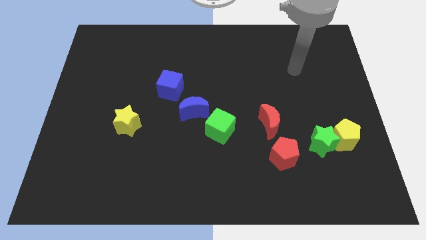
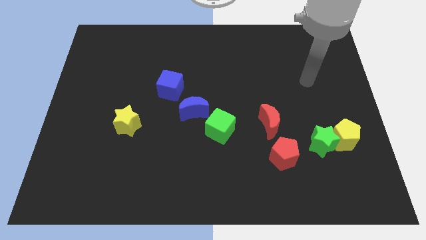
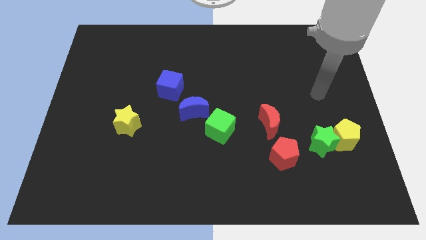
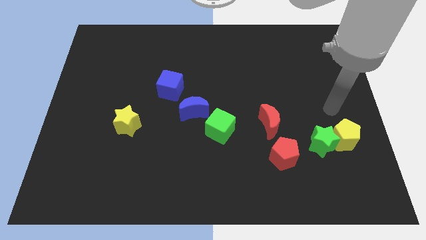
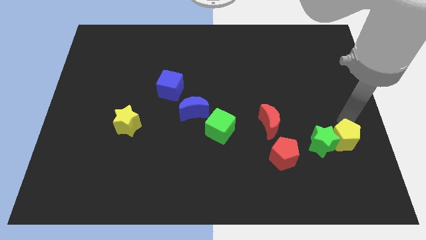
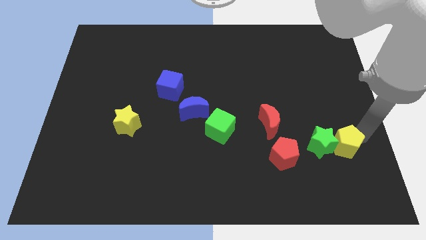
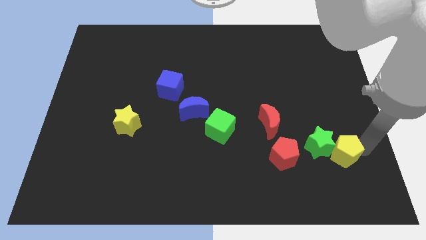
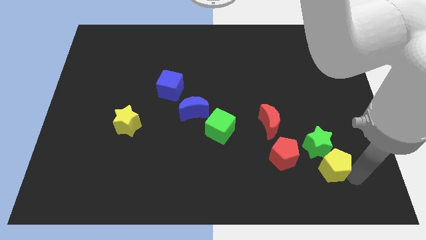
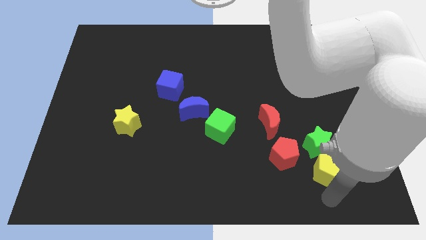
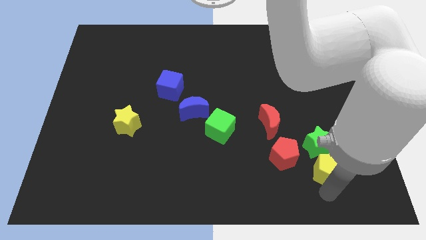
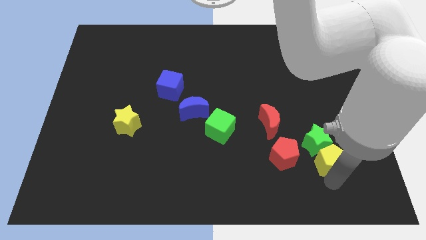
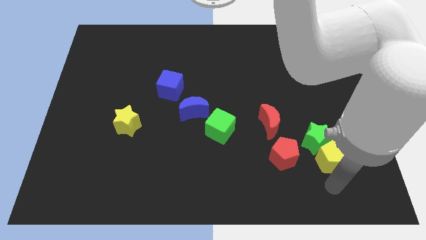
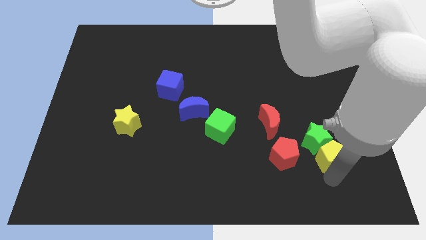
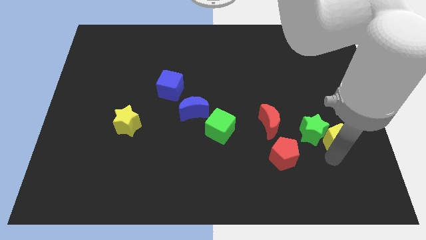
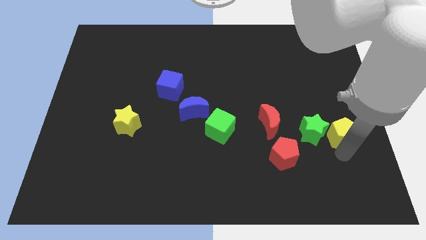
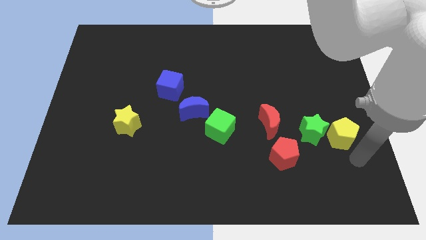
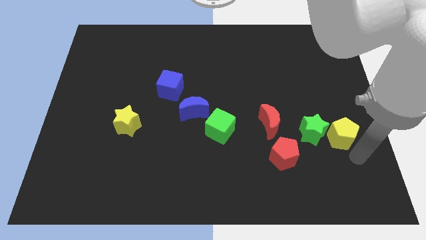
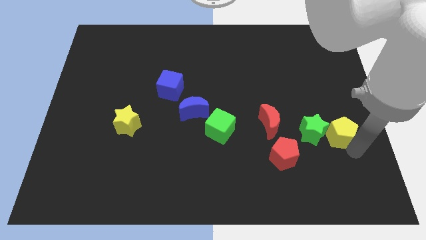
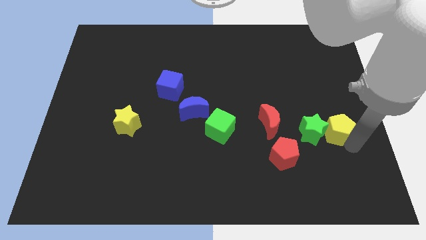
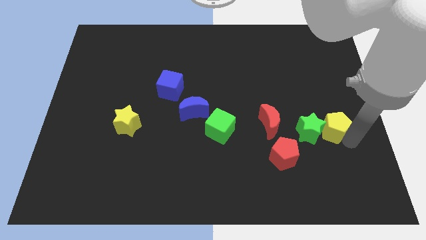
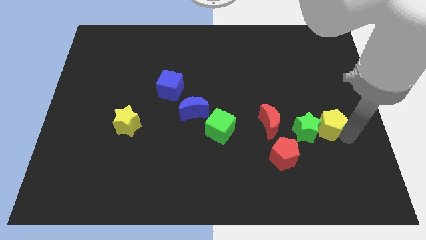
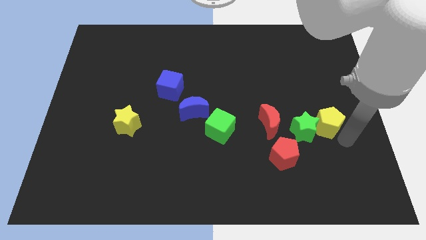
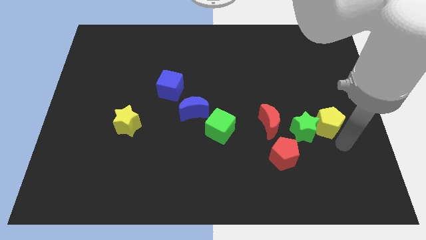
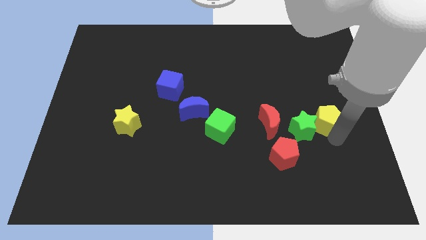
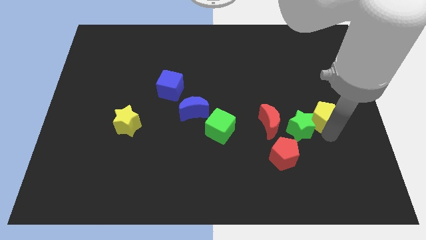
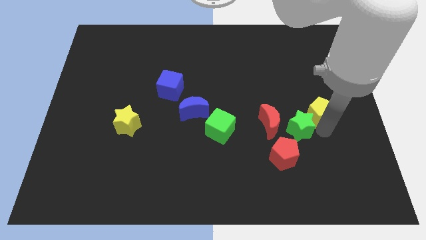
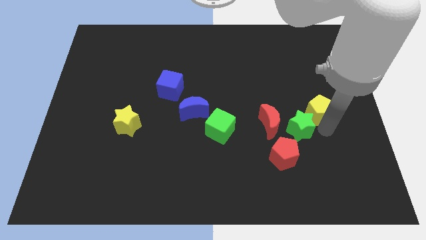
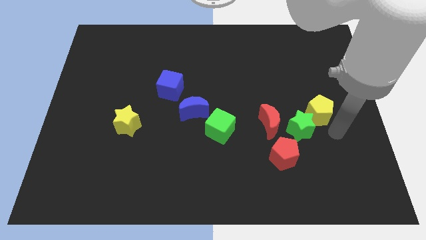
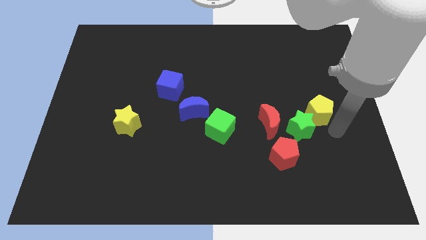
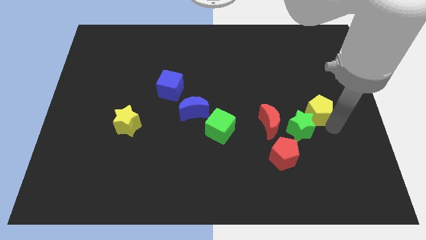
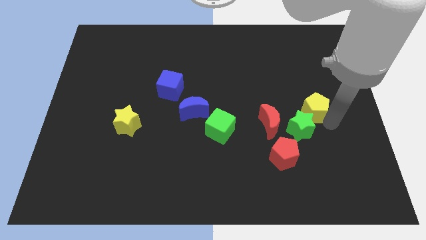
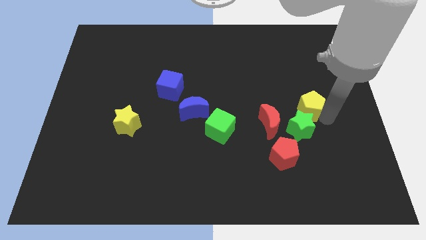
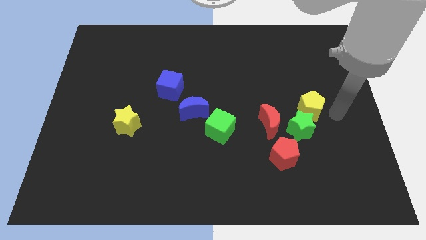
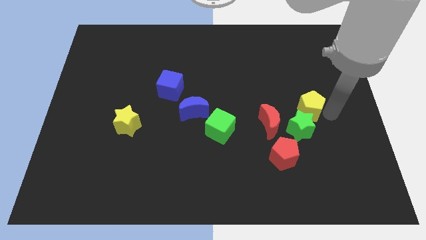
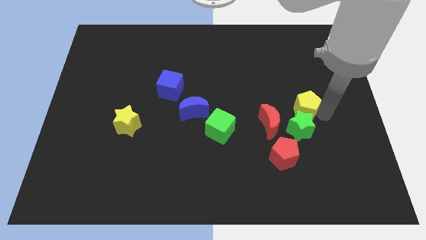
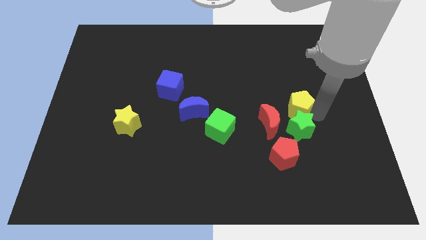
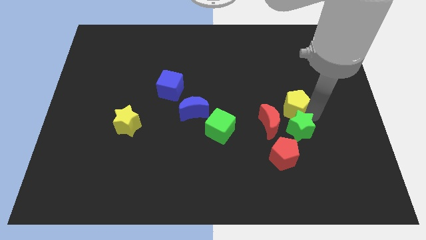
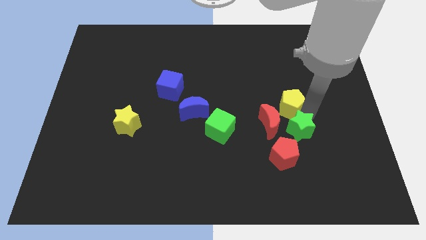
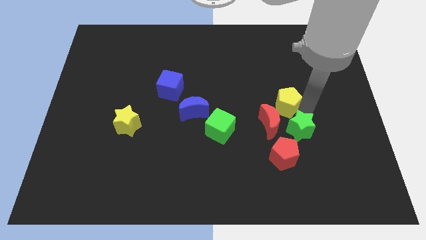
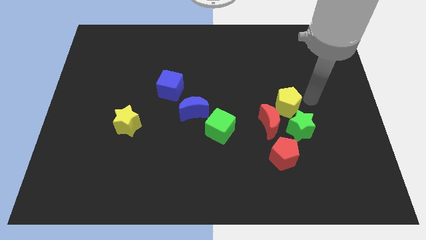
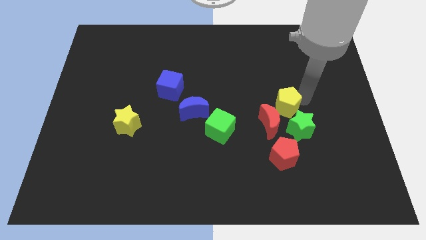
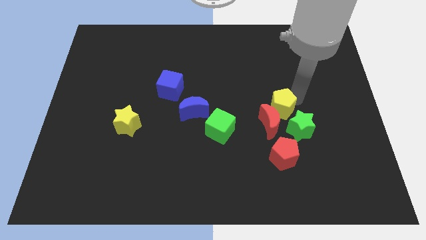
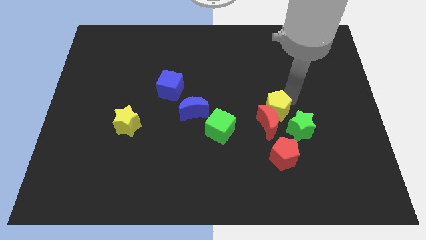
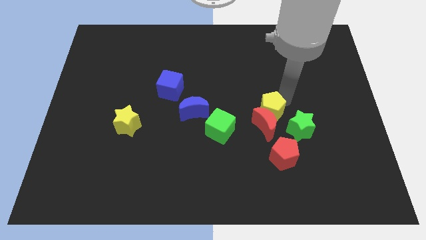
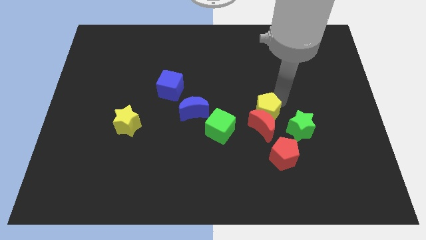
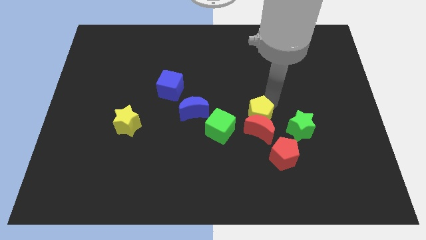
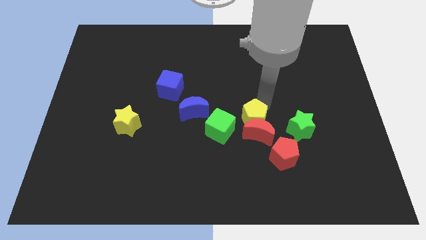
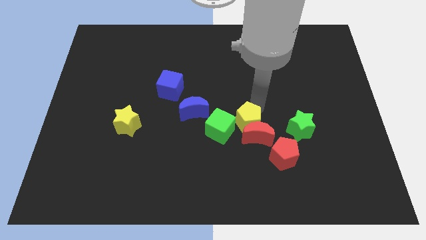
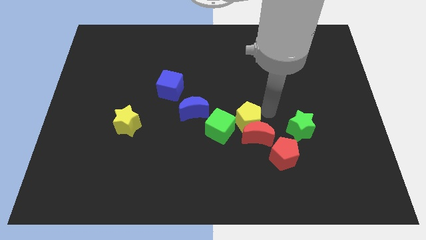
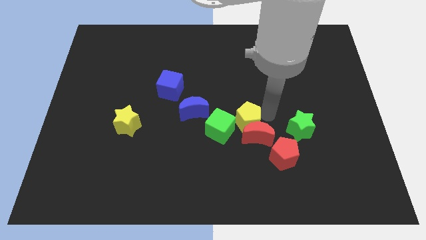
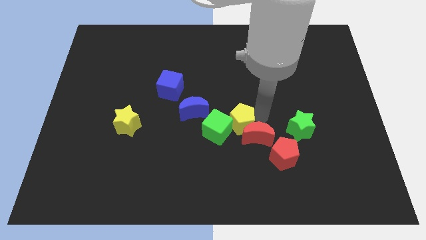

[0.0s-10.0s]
slide the yellow pentagon close to the green cube

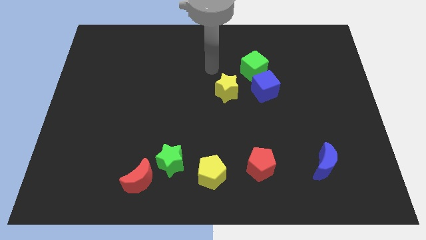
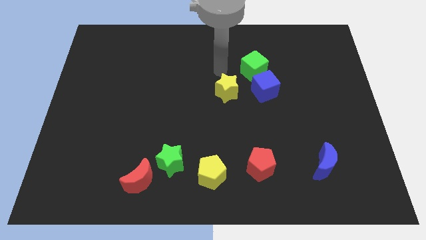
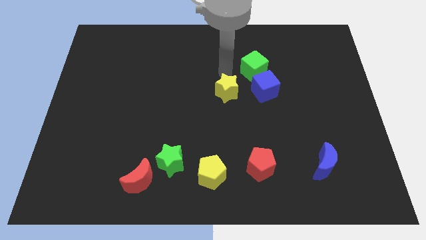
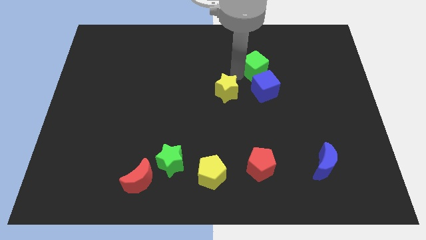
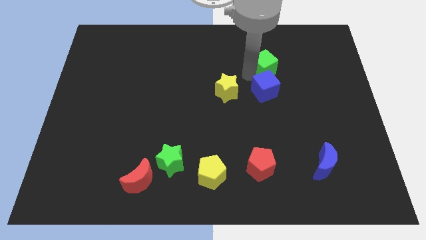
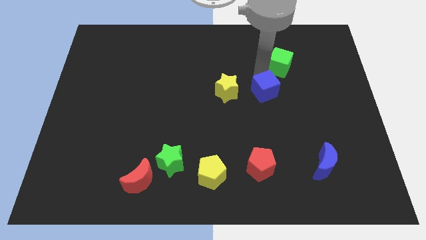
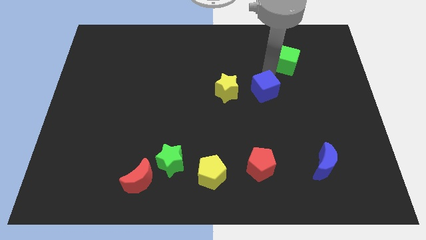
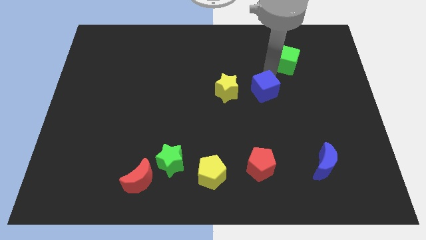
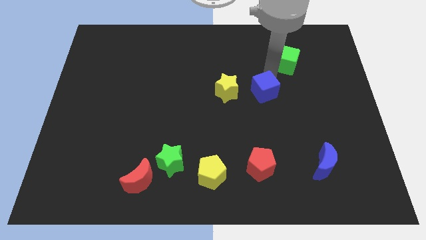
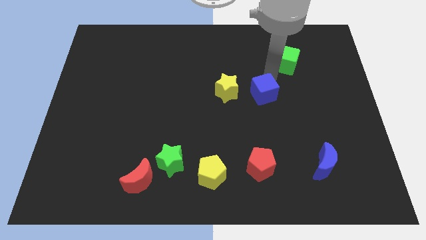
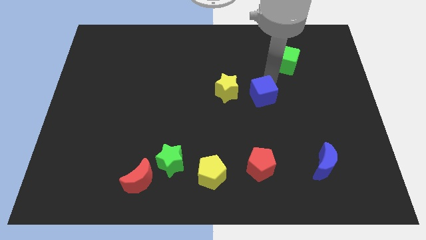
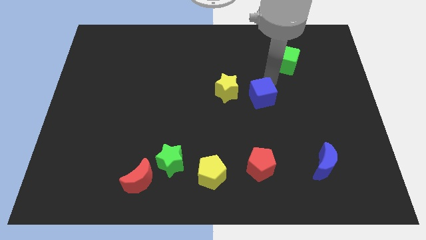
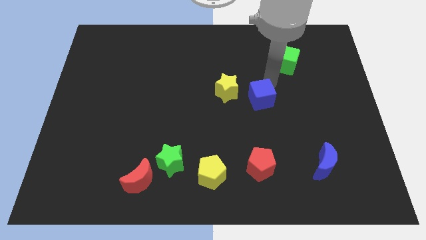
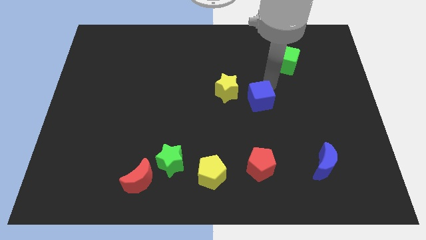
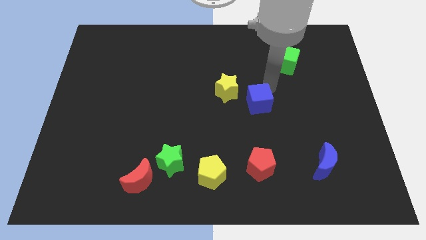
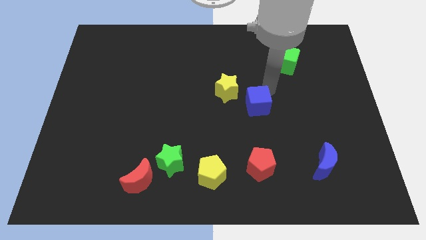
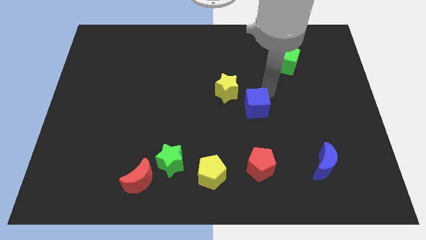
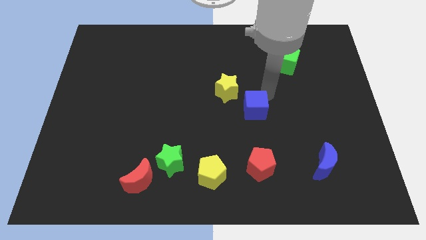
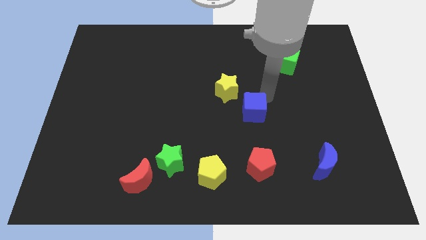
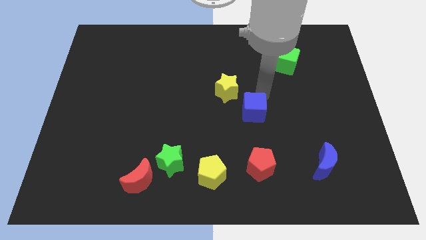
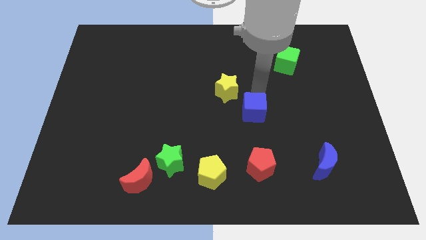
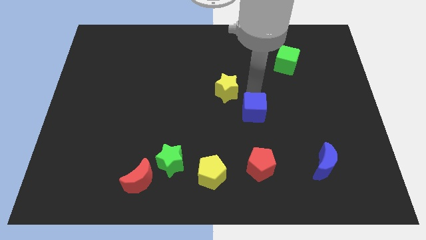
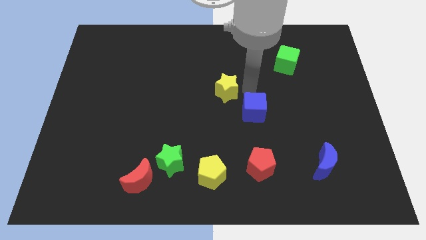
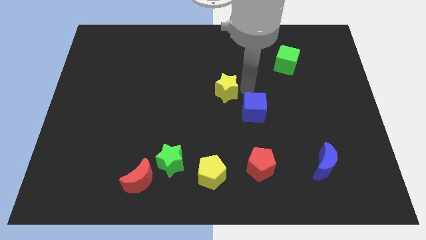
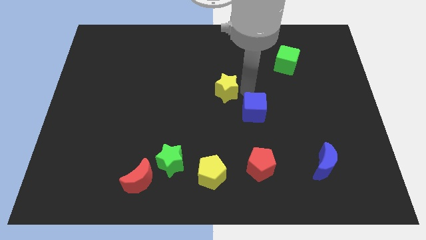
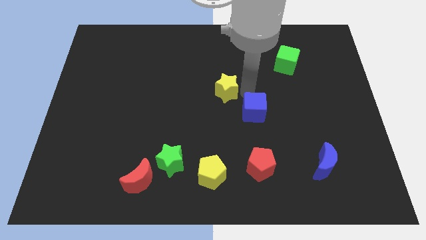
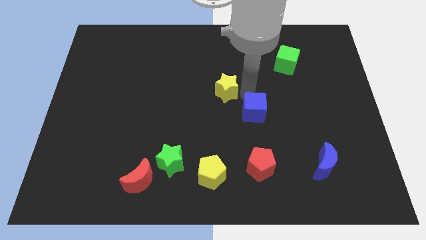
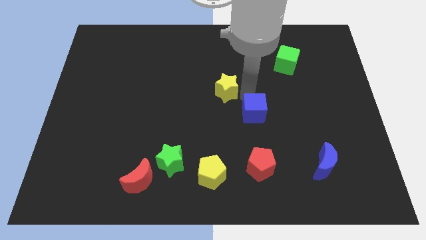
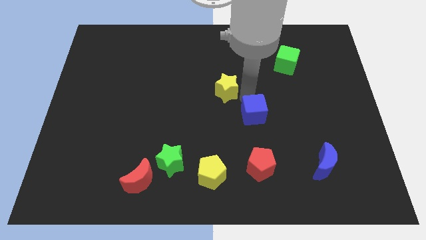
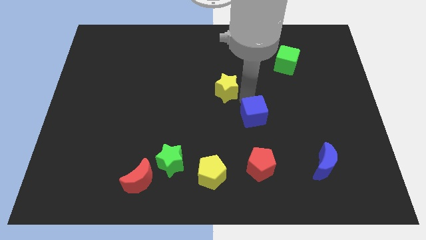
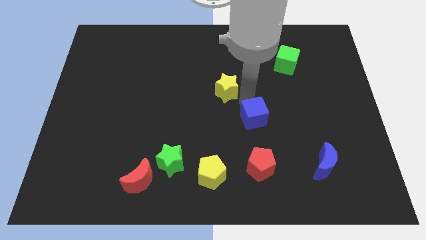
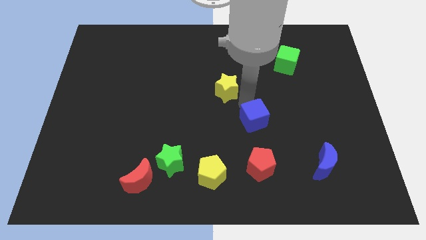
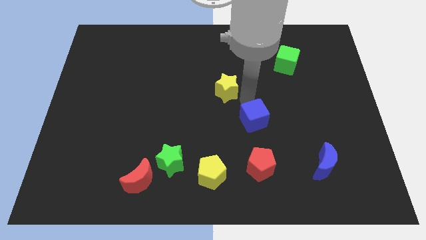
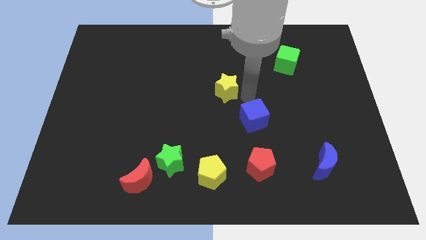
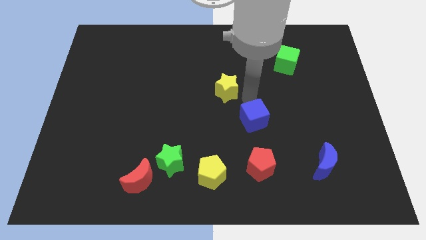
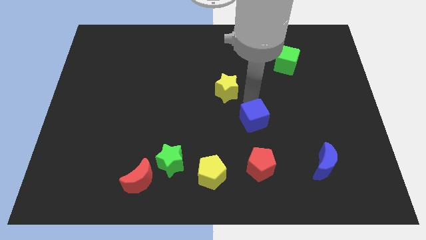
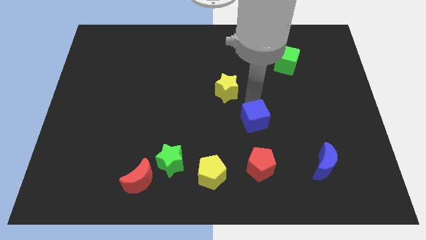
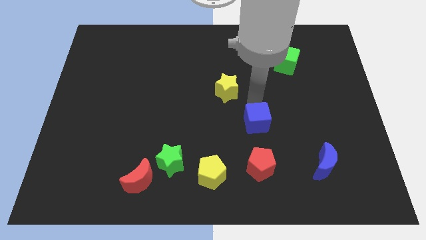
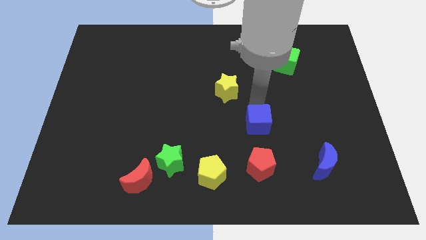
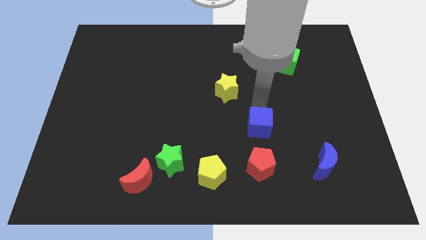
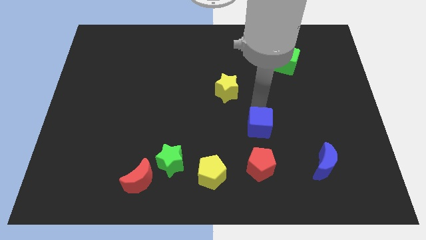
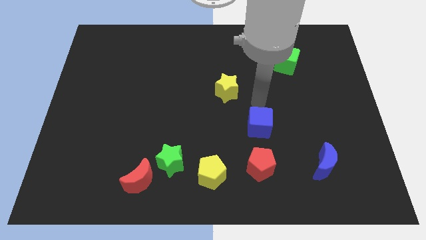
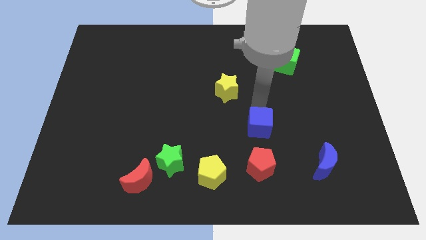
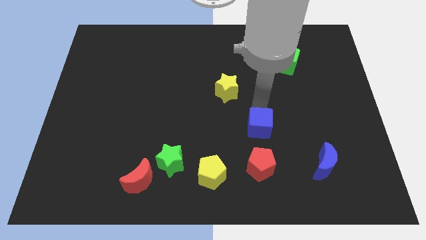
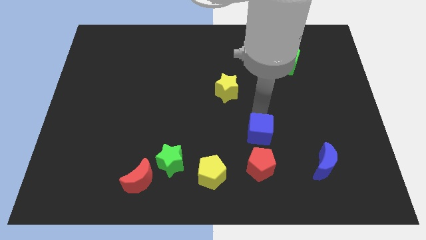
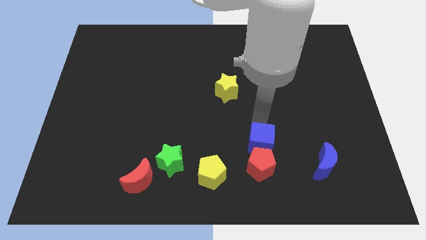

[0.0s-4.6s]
put the blue cube to the red pentagon
